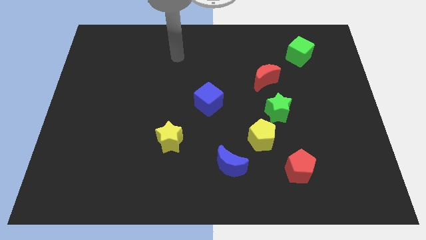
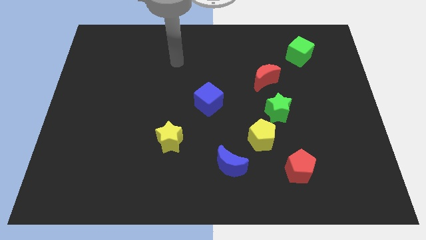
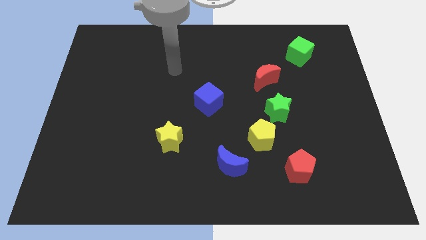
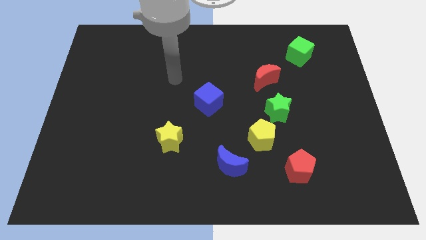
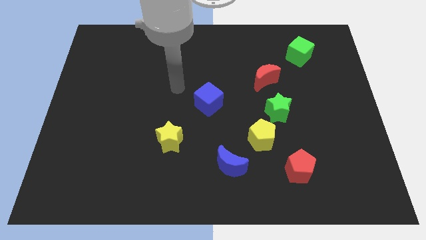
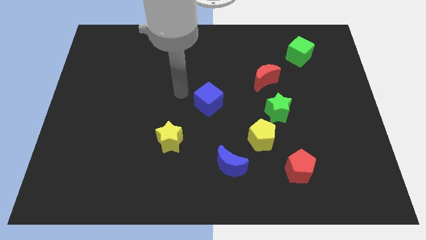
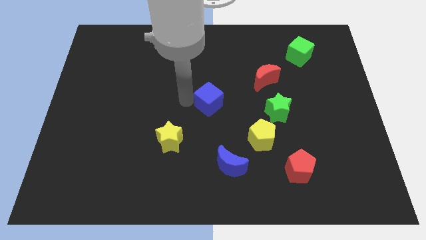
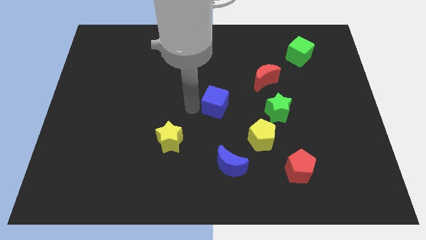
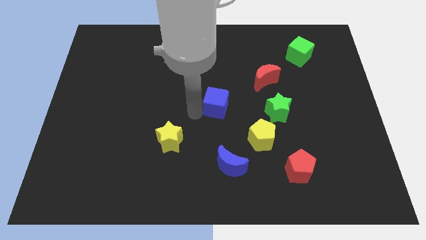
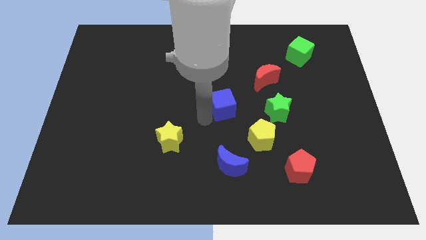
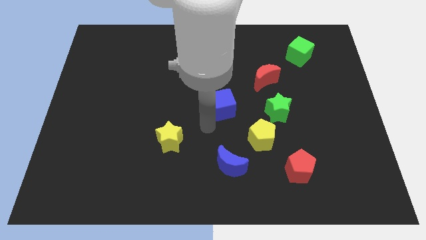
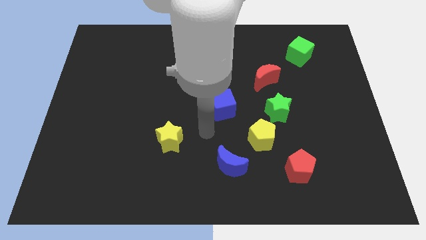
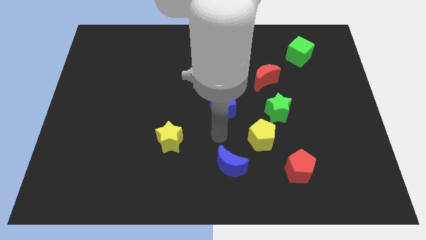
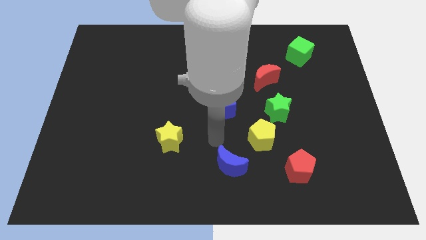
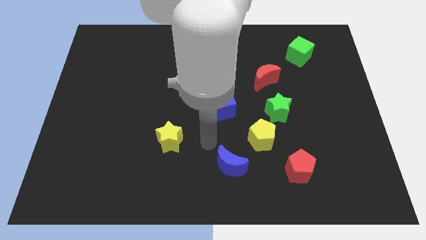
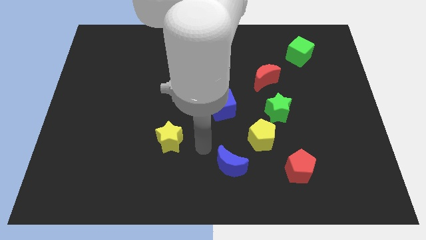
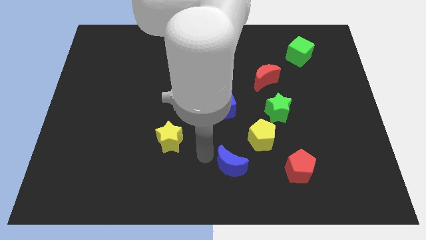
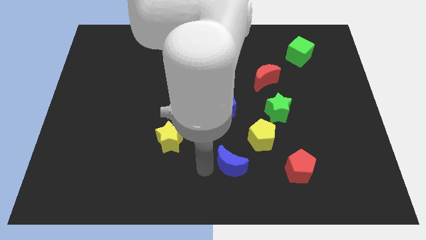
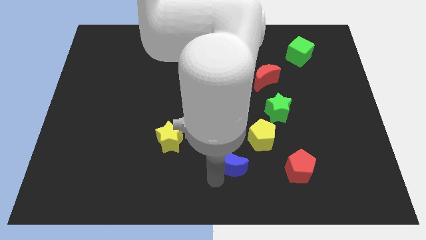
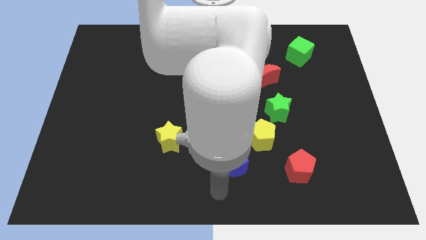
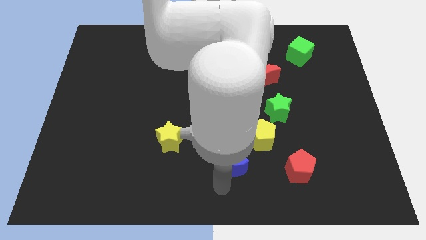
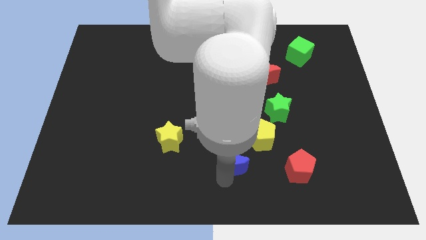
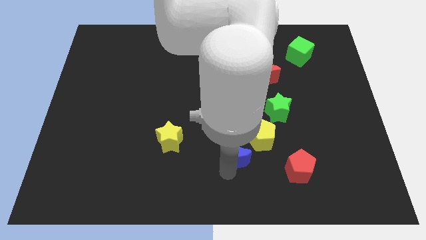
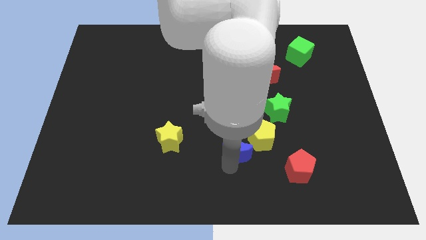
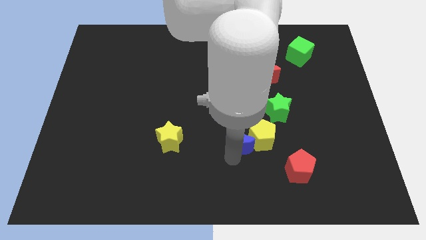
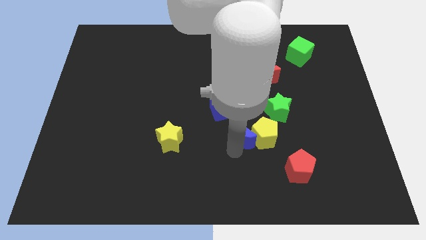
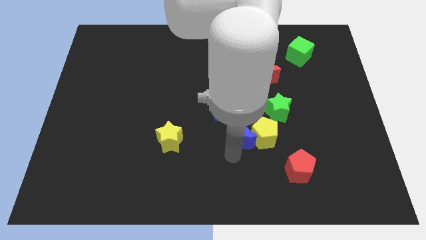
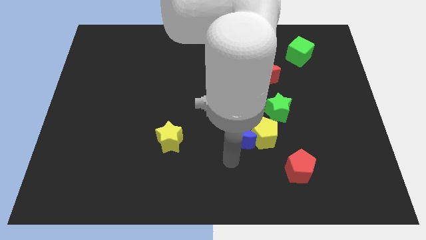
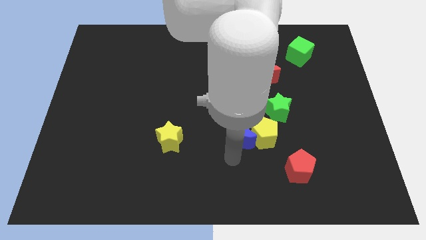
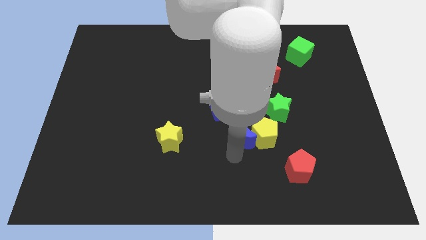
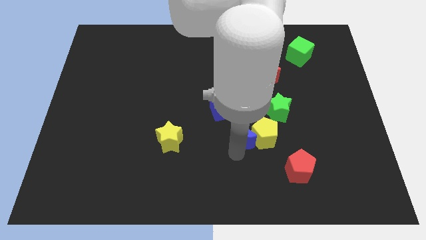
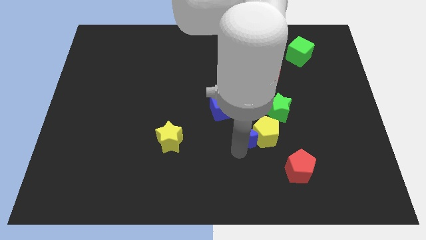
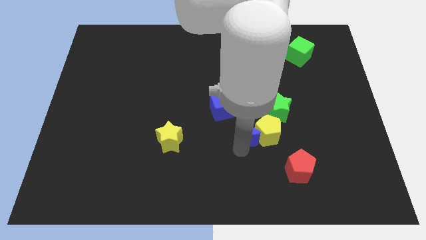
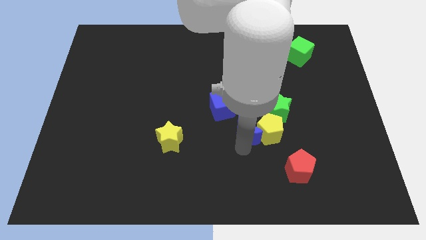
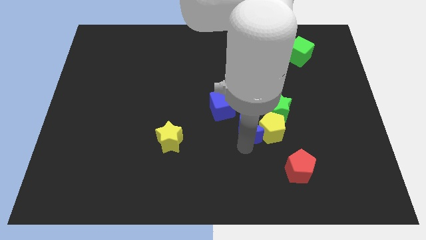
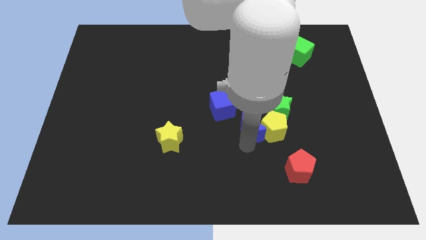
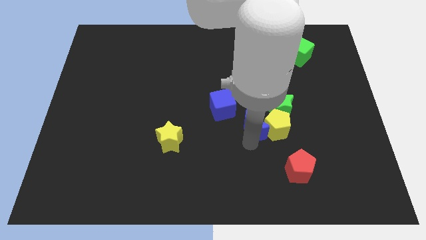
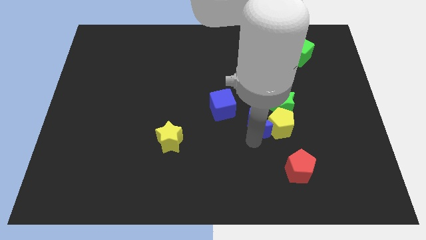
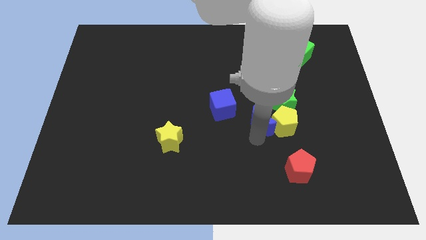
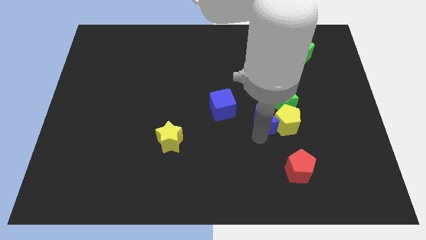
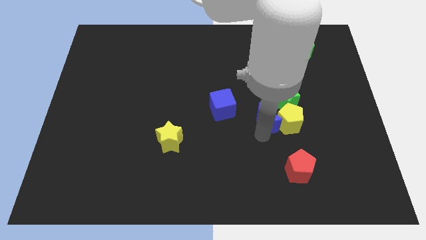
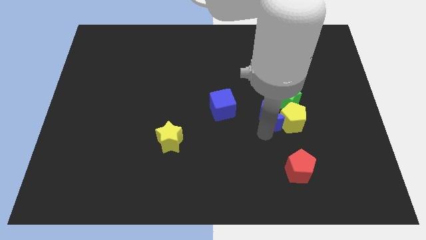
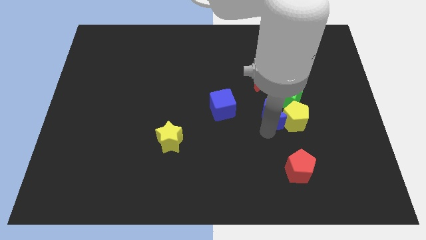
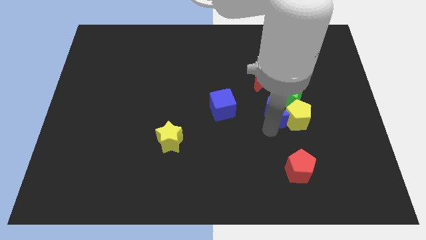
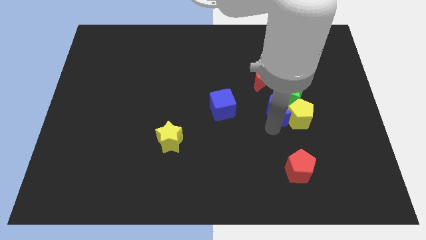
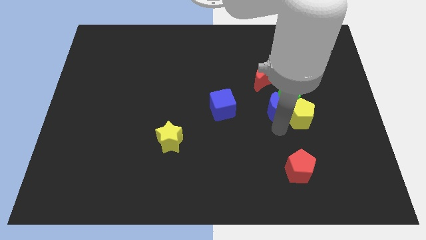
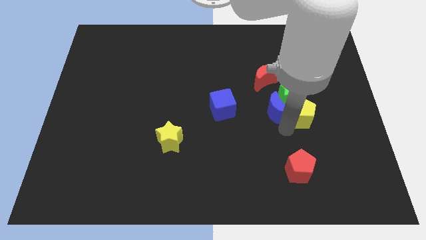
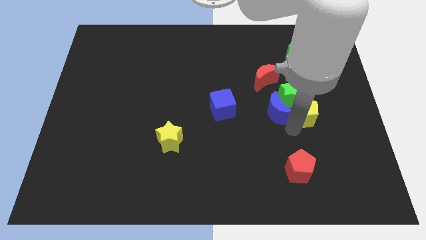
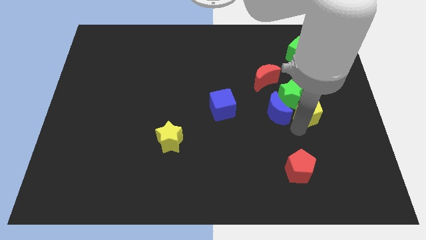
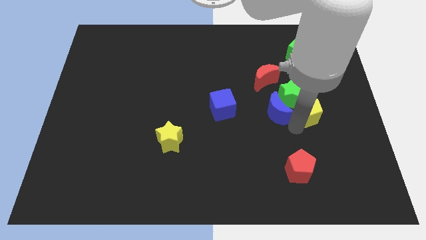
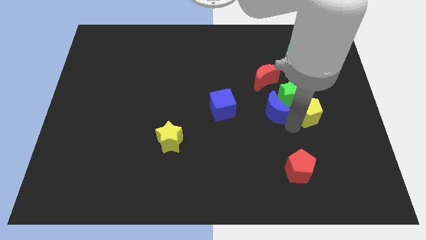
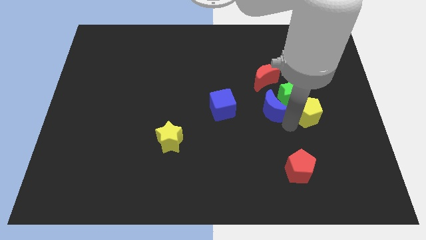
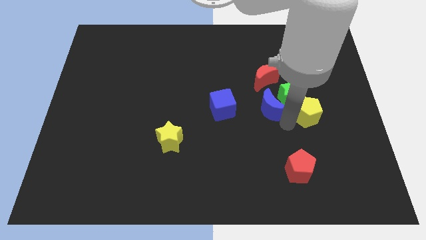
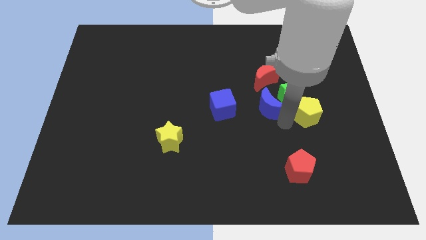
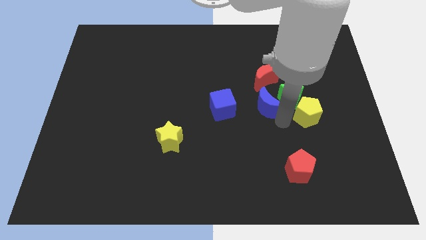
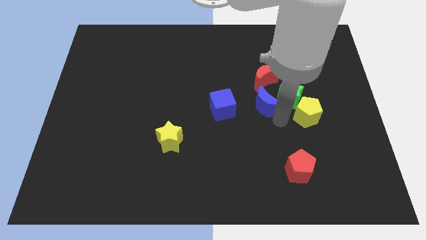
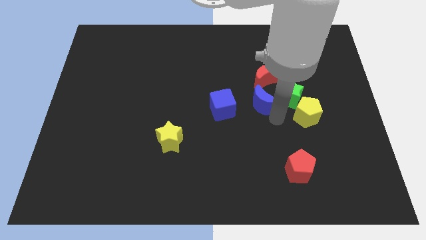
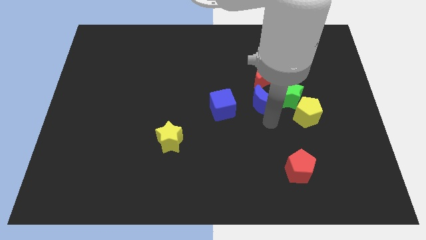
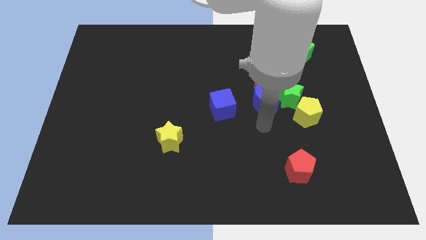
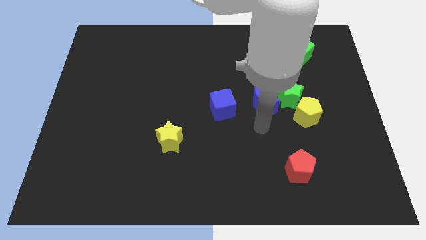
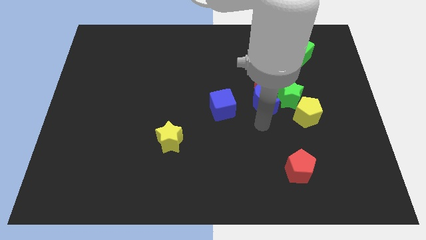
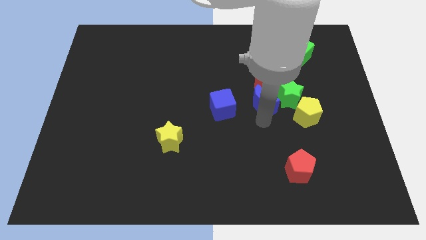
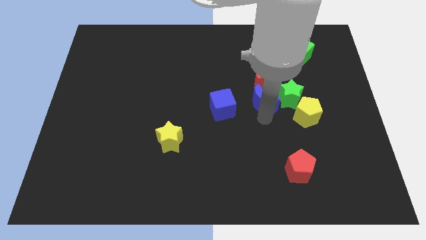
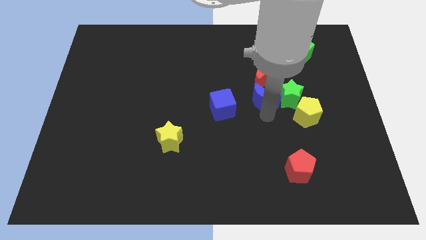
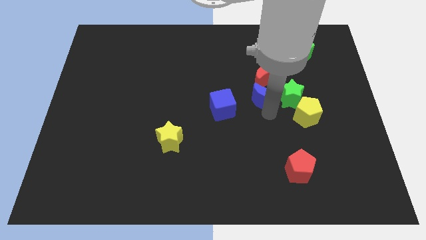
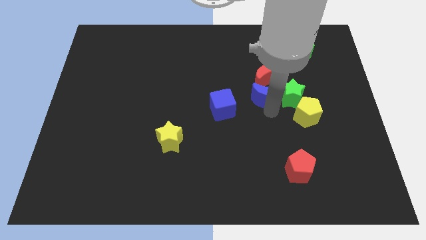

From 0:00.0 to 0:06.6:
put the blue moon next to the red moon
